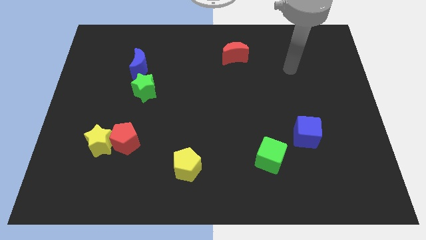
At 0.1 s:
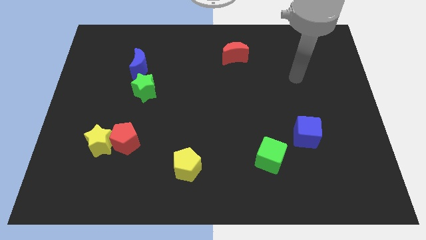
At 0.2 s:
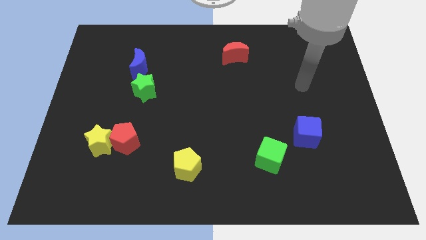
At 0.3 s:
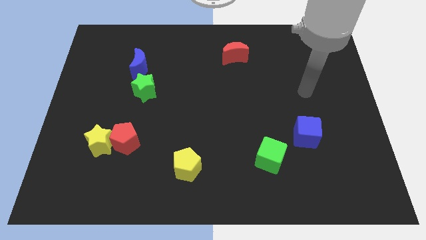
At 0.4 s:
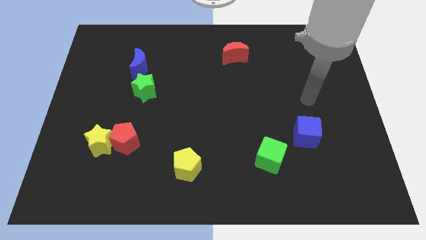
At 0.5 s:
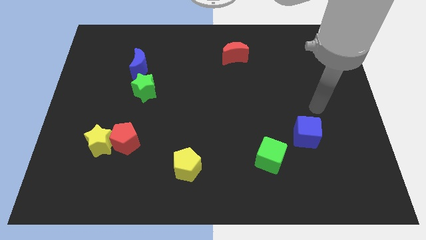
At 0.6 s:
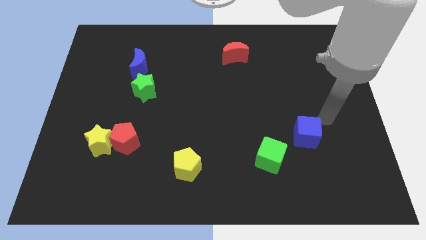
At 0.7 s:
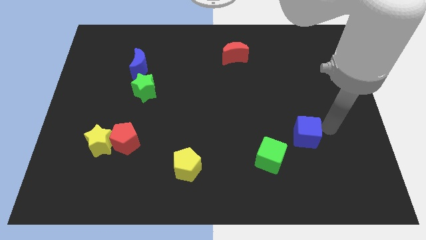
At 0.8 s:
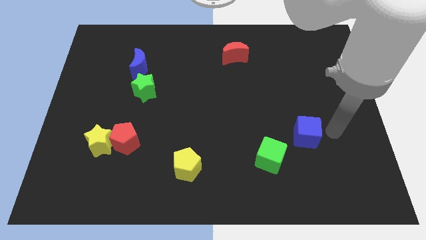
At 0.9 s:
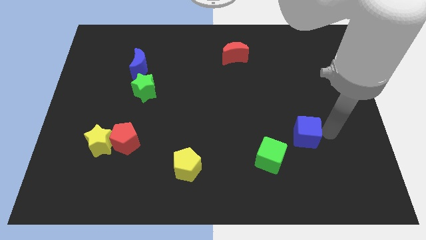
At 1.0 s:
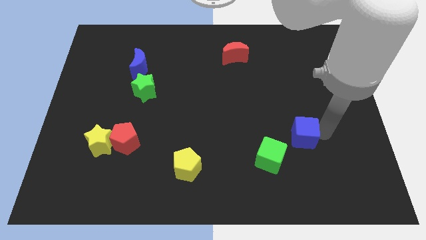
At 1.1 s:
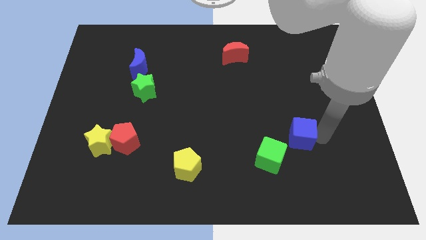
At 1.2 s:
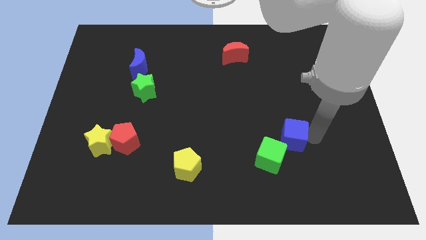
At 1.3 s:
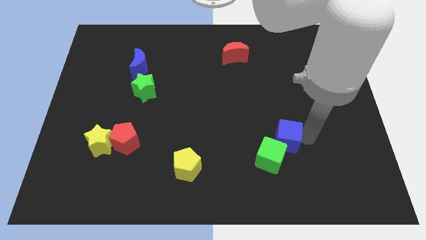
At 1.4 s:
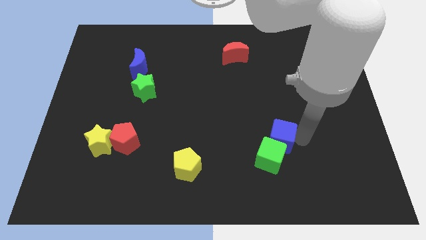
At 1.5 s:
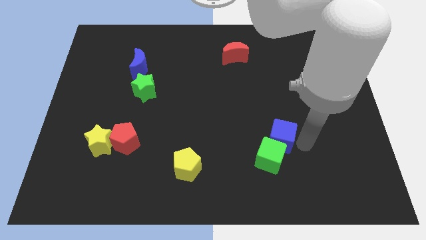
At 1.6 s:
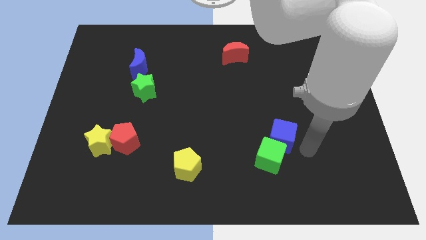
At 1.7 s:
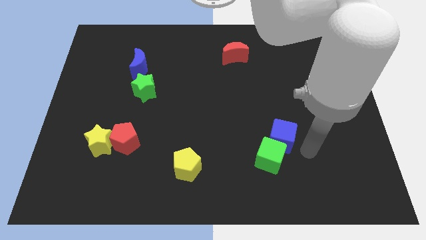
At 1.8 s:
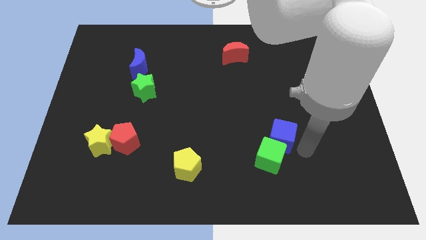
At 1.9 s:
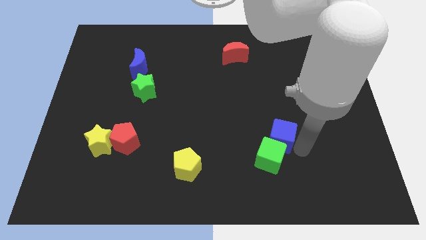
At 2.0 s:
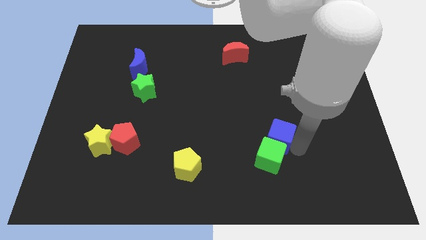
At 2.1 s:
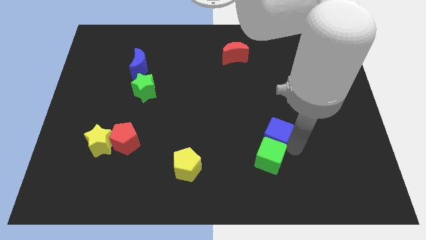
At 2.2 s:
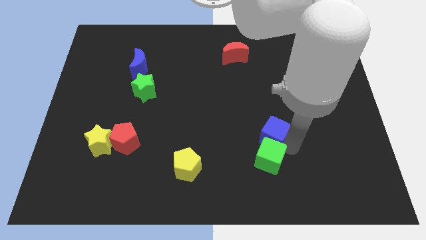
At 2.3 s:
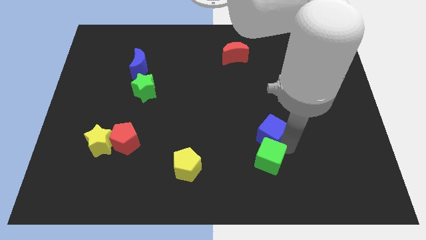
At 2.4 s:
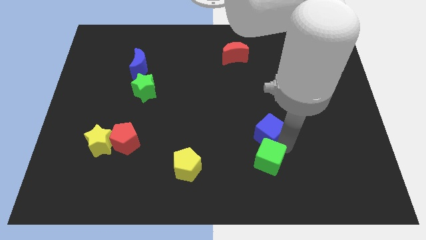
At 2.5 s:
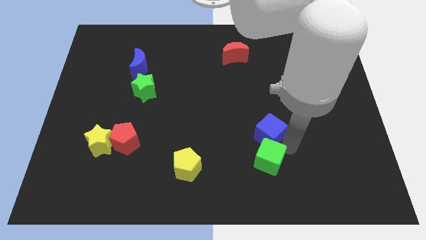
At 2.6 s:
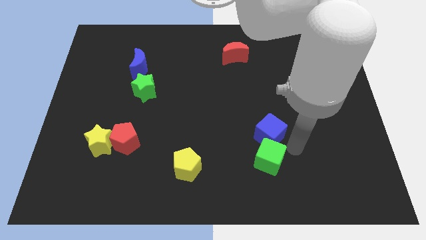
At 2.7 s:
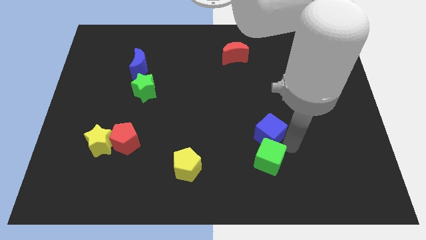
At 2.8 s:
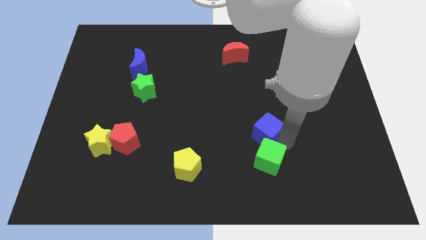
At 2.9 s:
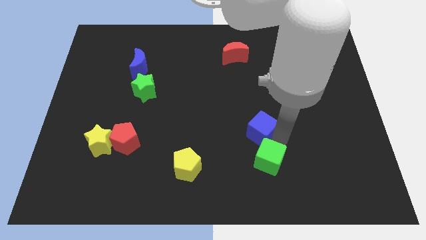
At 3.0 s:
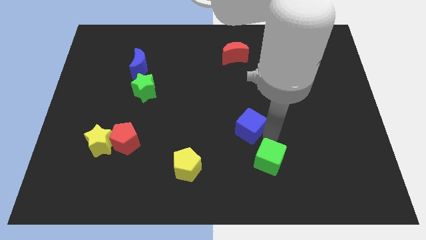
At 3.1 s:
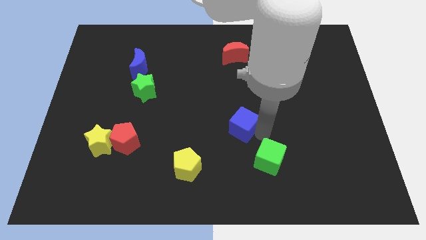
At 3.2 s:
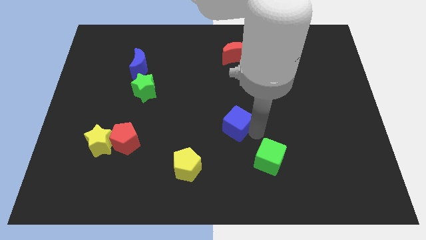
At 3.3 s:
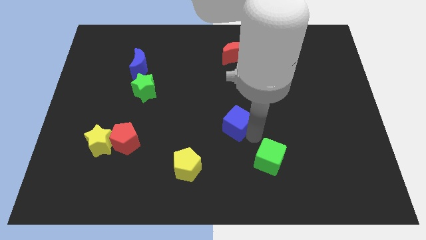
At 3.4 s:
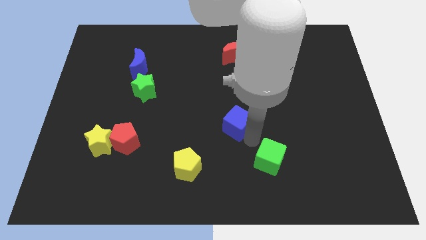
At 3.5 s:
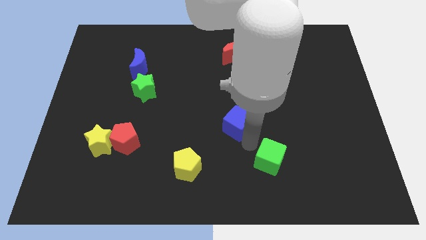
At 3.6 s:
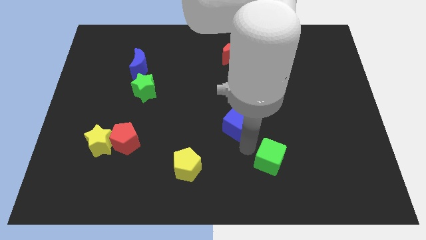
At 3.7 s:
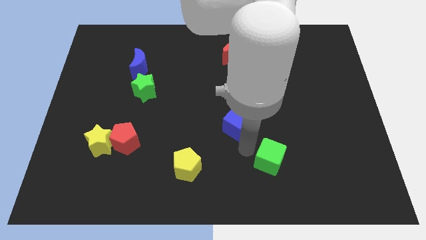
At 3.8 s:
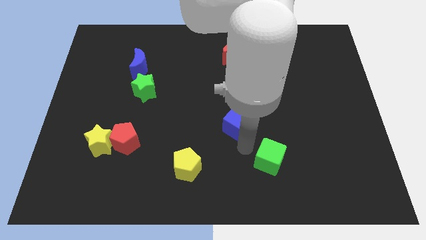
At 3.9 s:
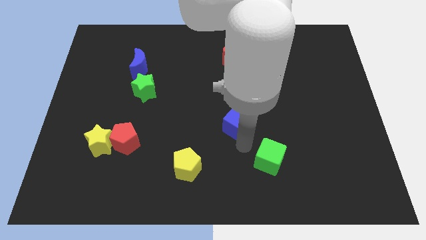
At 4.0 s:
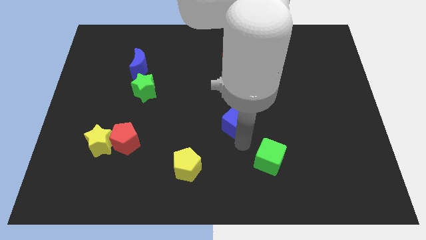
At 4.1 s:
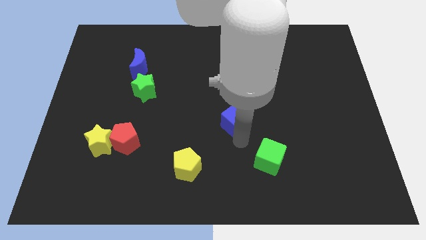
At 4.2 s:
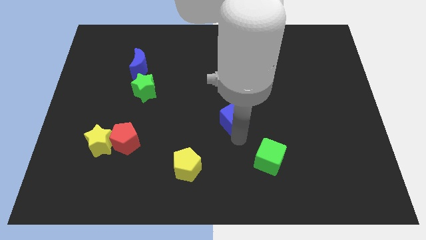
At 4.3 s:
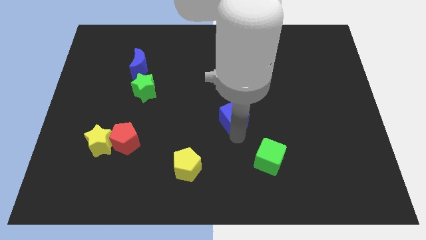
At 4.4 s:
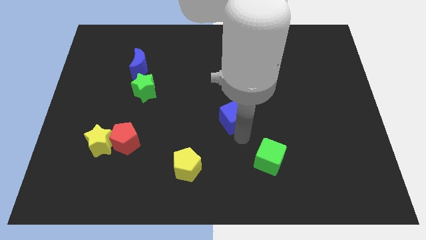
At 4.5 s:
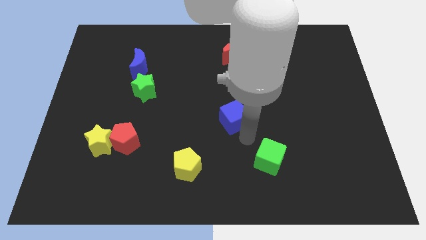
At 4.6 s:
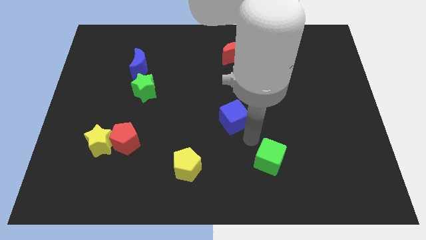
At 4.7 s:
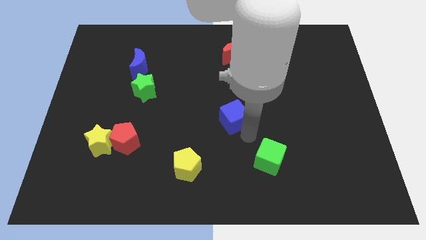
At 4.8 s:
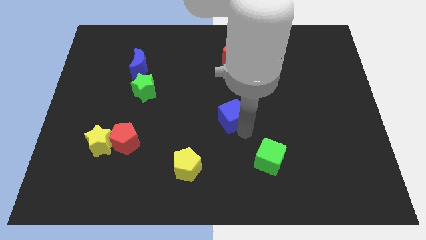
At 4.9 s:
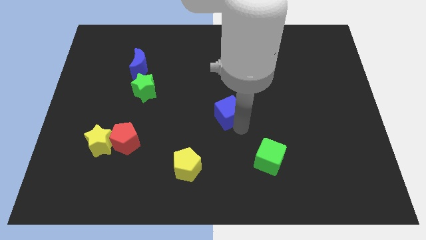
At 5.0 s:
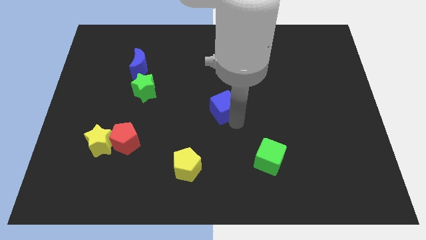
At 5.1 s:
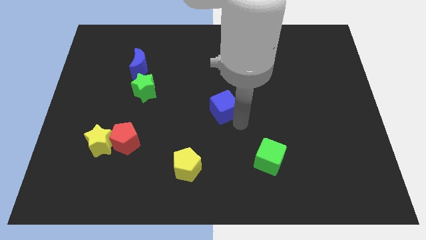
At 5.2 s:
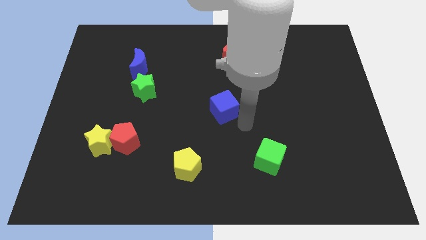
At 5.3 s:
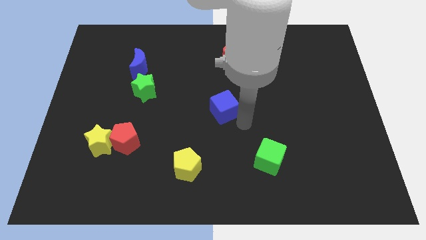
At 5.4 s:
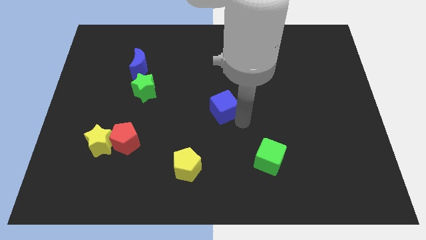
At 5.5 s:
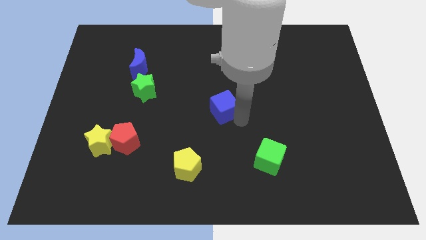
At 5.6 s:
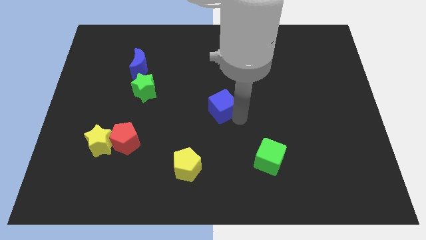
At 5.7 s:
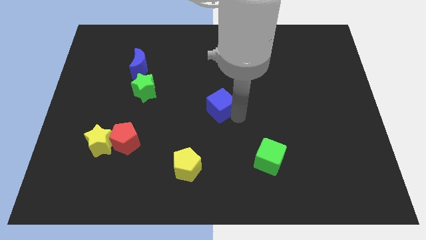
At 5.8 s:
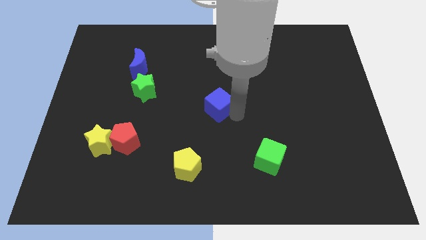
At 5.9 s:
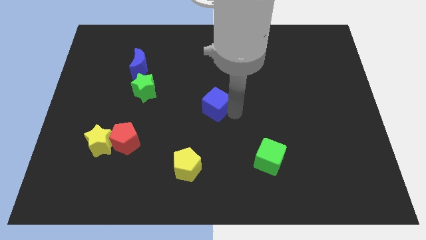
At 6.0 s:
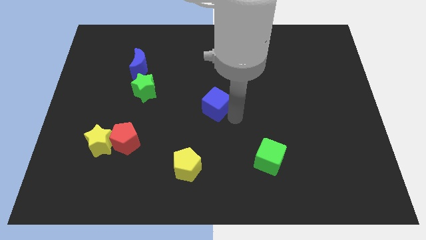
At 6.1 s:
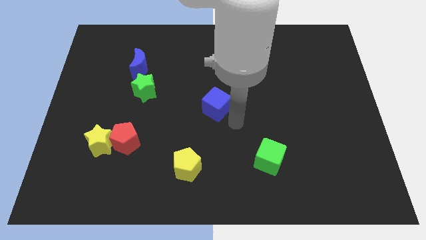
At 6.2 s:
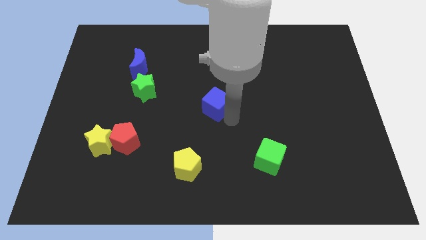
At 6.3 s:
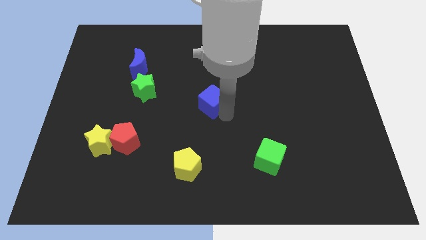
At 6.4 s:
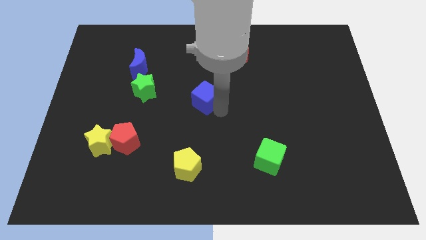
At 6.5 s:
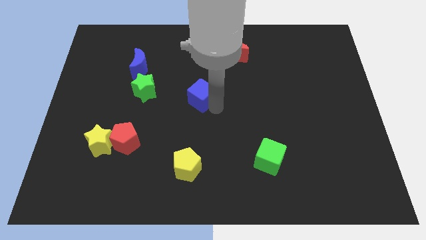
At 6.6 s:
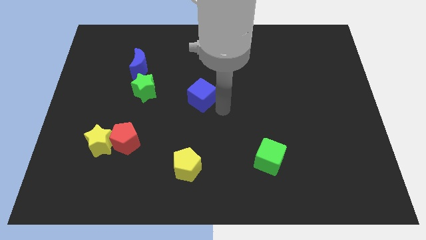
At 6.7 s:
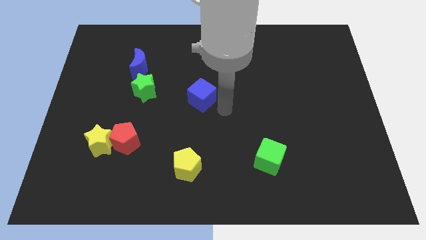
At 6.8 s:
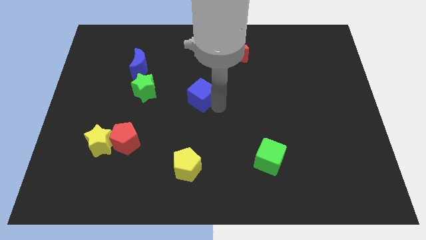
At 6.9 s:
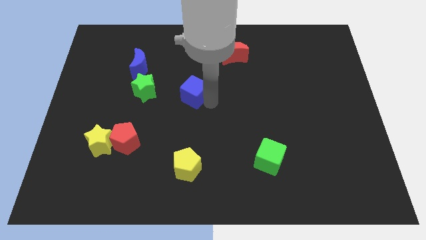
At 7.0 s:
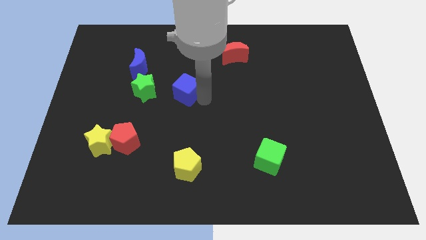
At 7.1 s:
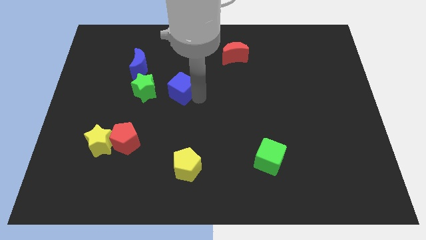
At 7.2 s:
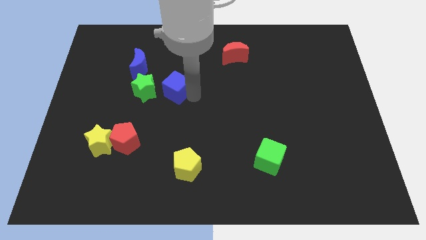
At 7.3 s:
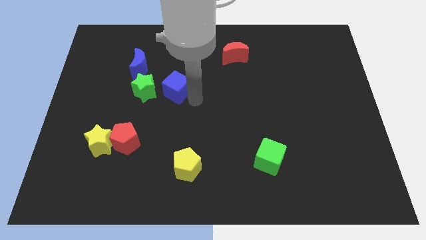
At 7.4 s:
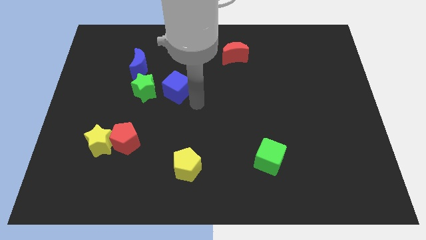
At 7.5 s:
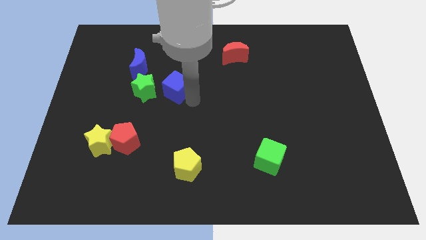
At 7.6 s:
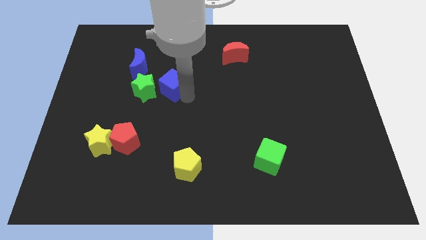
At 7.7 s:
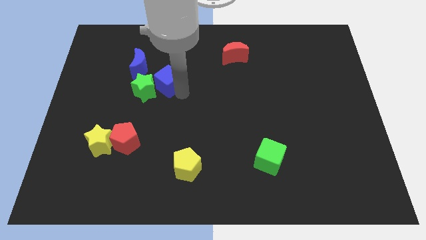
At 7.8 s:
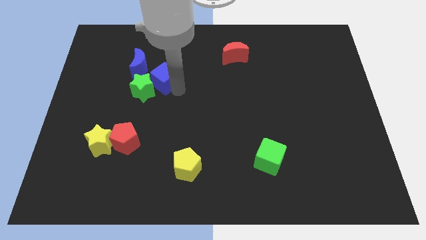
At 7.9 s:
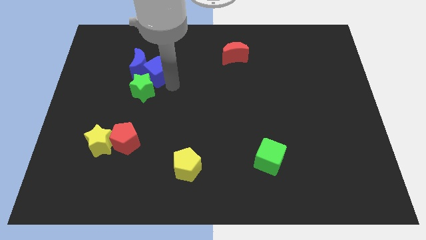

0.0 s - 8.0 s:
push the blue cube to the blue moon
